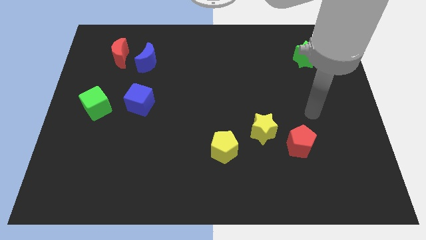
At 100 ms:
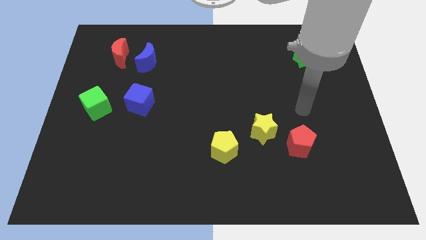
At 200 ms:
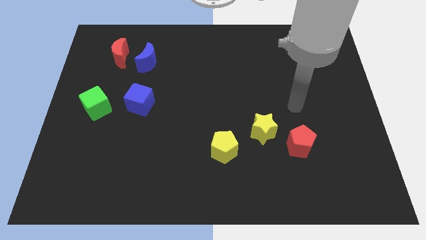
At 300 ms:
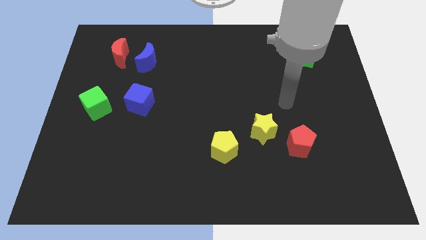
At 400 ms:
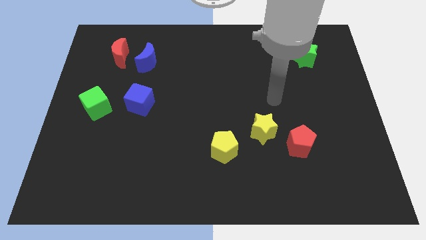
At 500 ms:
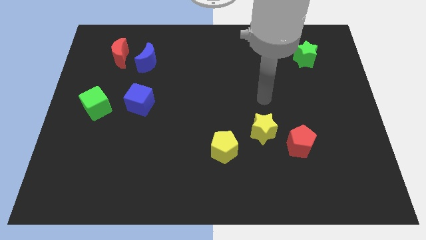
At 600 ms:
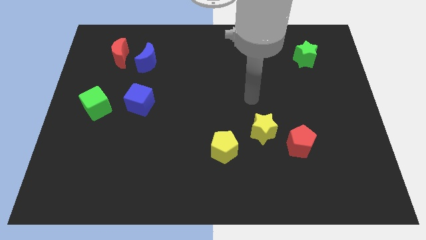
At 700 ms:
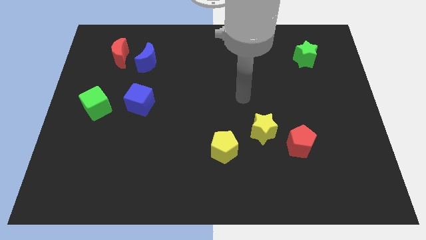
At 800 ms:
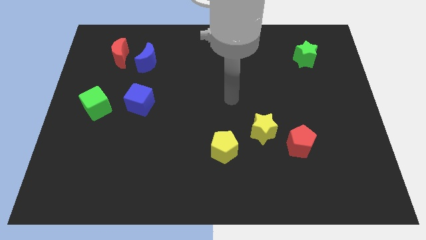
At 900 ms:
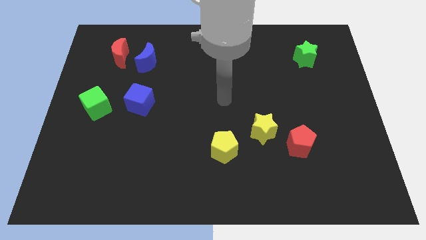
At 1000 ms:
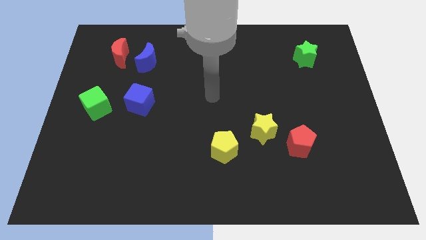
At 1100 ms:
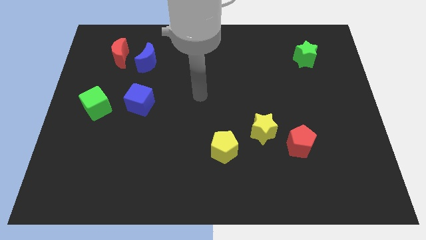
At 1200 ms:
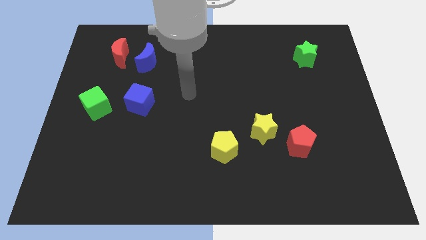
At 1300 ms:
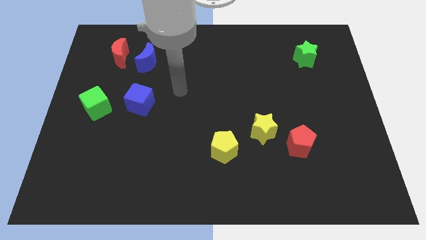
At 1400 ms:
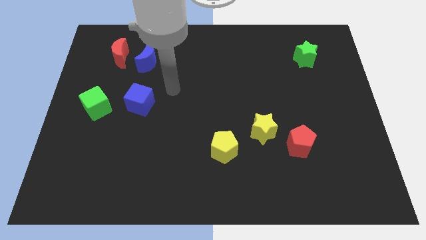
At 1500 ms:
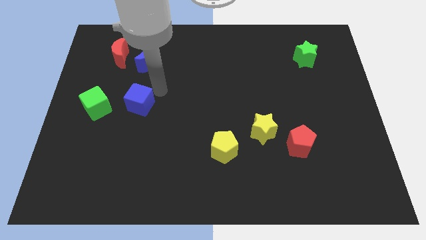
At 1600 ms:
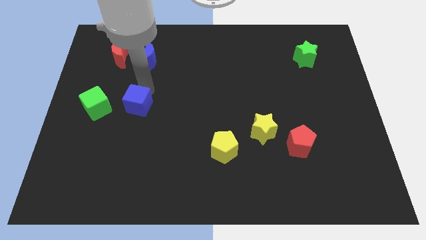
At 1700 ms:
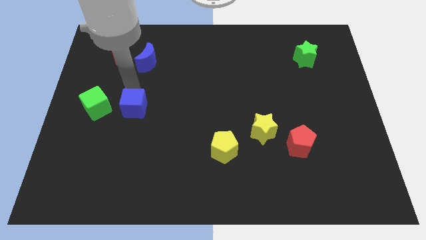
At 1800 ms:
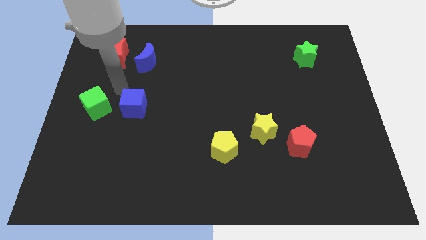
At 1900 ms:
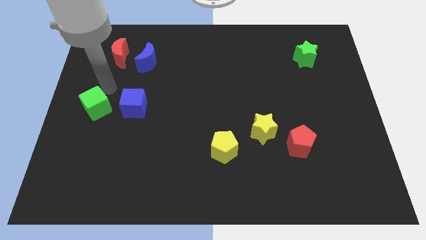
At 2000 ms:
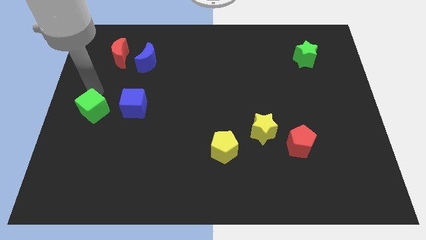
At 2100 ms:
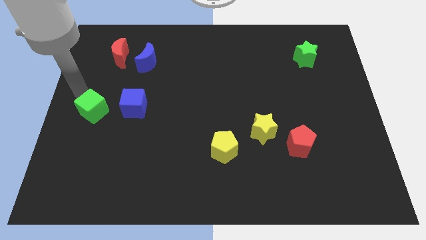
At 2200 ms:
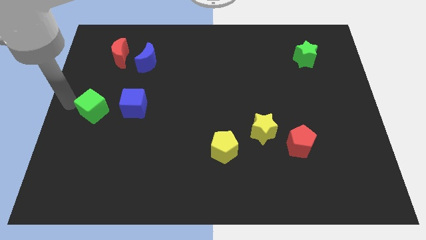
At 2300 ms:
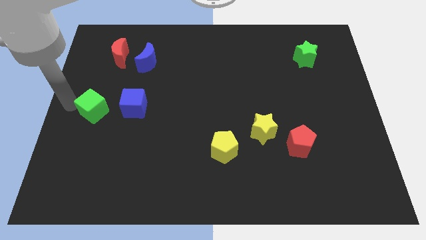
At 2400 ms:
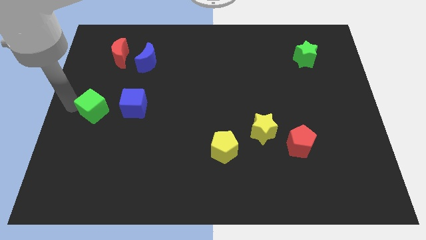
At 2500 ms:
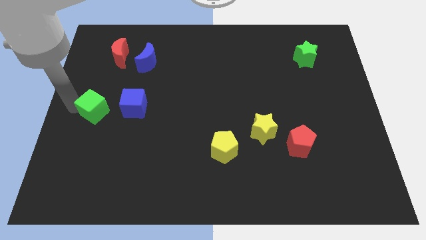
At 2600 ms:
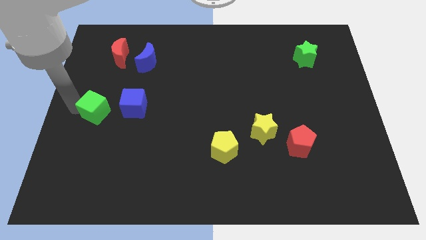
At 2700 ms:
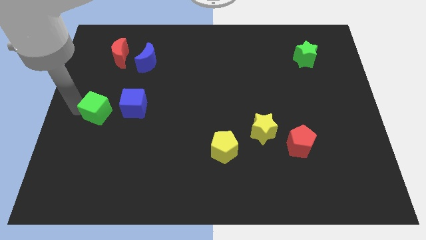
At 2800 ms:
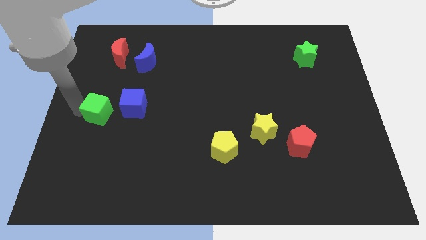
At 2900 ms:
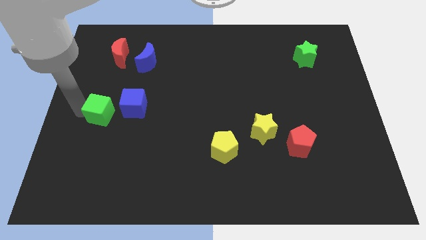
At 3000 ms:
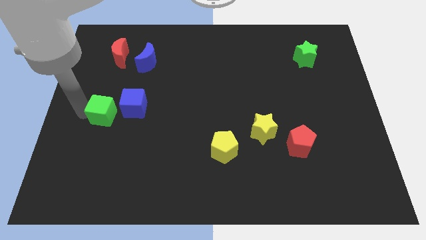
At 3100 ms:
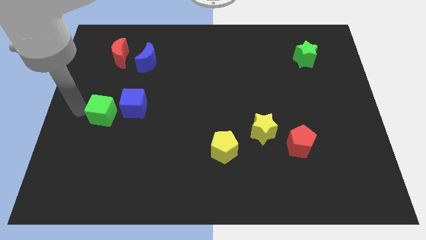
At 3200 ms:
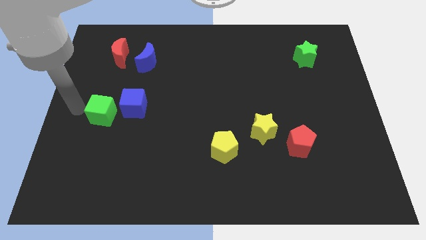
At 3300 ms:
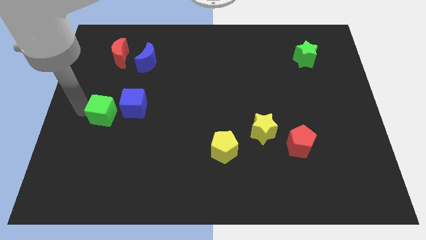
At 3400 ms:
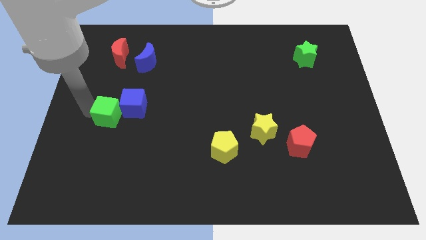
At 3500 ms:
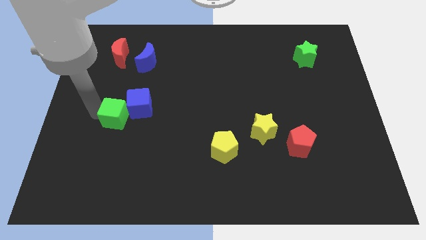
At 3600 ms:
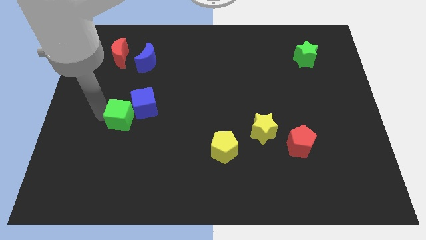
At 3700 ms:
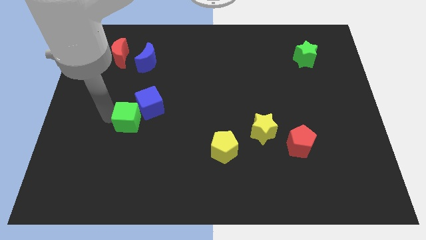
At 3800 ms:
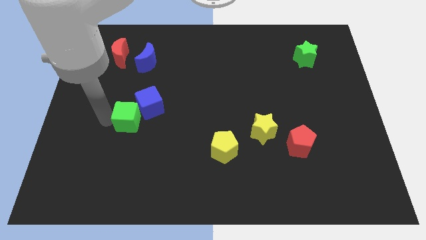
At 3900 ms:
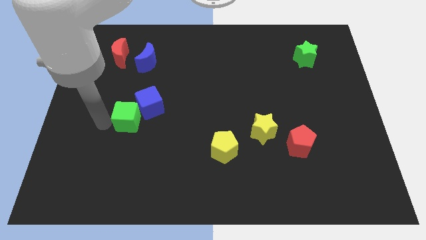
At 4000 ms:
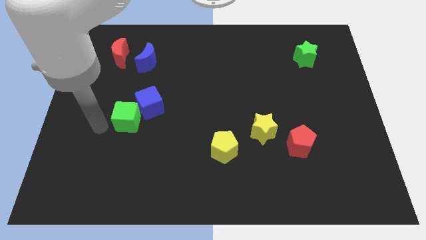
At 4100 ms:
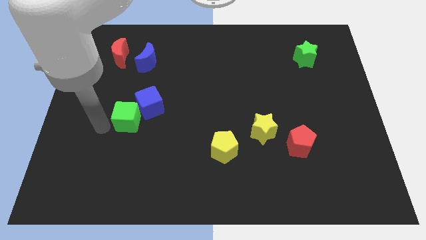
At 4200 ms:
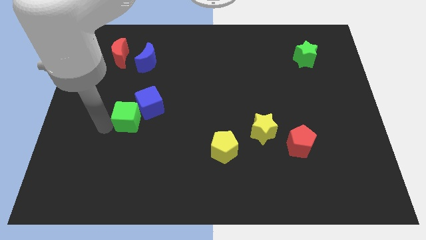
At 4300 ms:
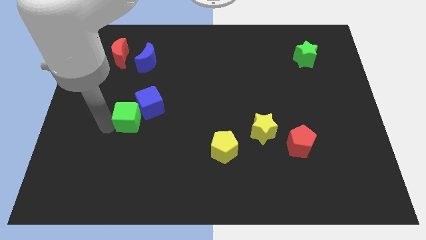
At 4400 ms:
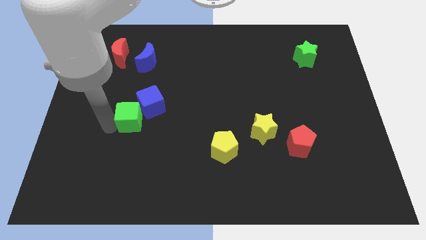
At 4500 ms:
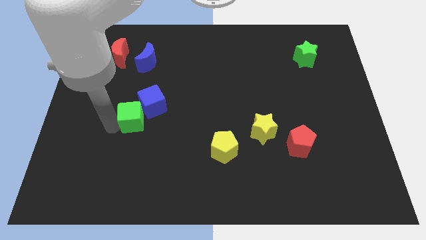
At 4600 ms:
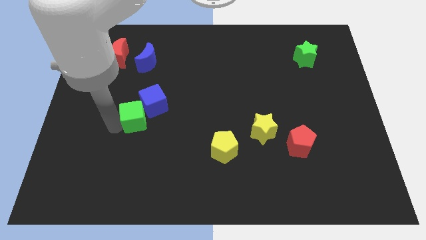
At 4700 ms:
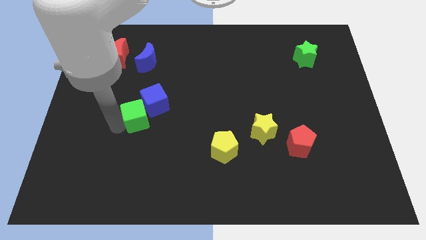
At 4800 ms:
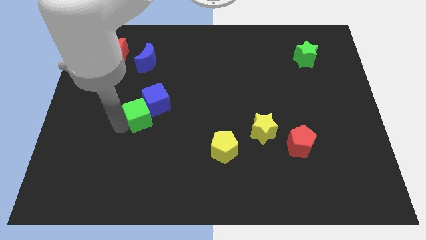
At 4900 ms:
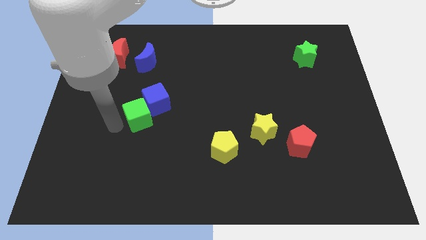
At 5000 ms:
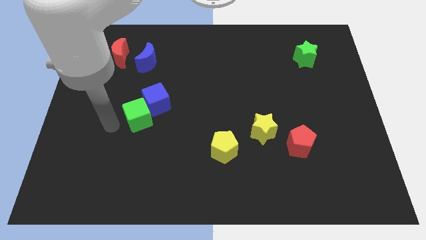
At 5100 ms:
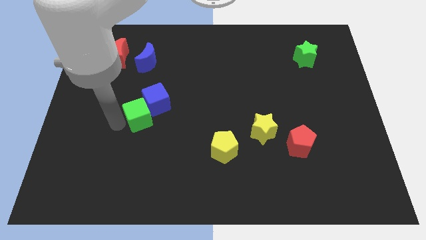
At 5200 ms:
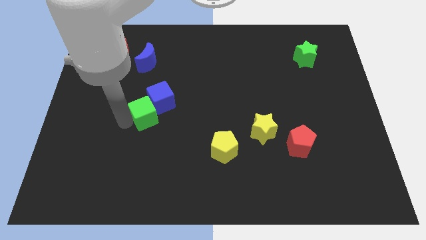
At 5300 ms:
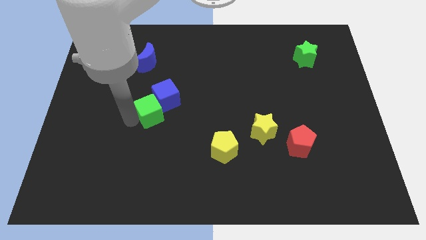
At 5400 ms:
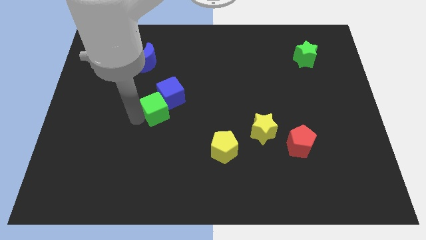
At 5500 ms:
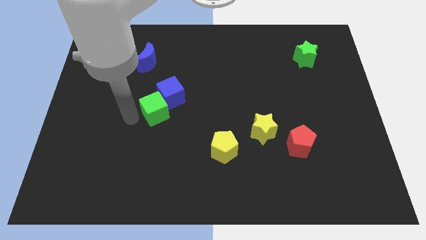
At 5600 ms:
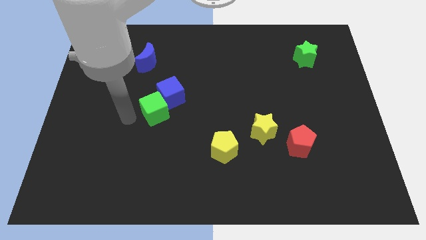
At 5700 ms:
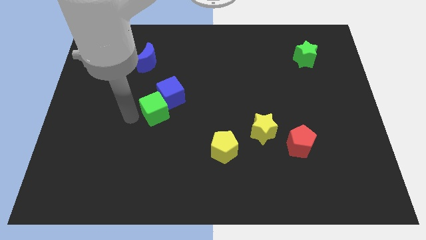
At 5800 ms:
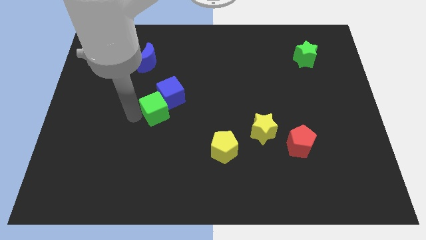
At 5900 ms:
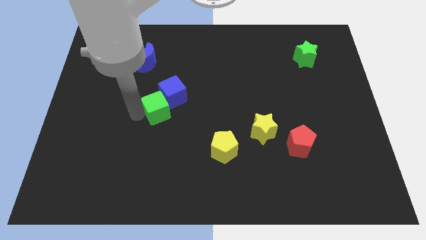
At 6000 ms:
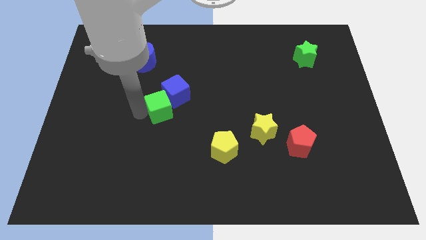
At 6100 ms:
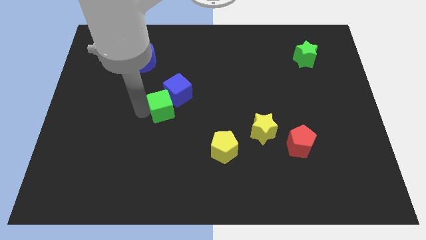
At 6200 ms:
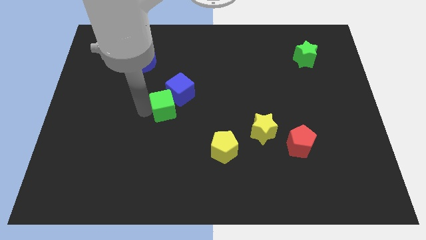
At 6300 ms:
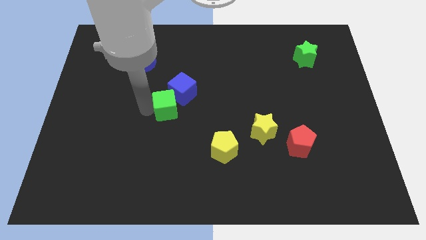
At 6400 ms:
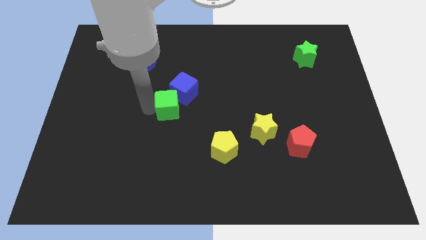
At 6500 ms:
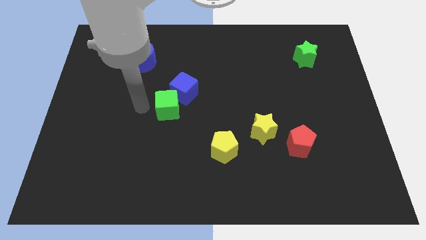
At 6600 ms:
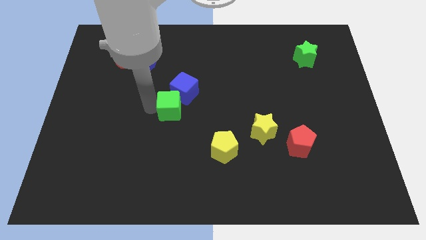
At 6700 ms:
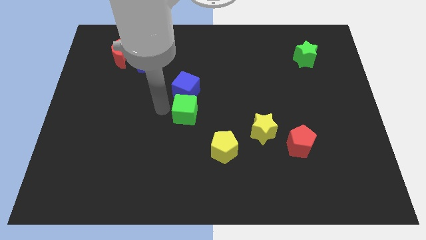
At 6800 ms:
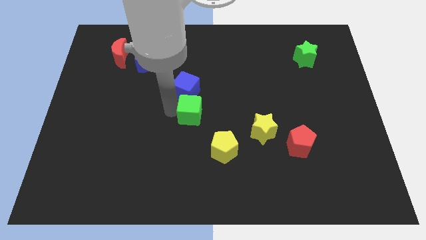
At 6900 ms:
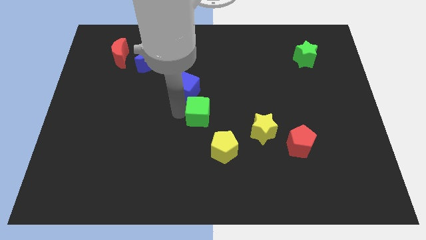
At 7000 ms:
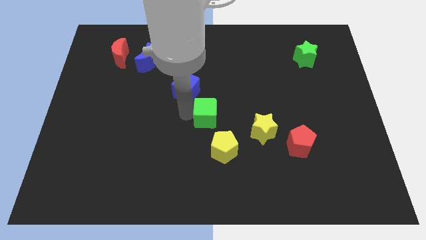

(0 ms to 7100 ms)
move the green cube to the top of the yellow pentagon

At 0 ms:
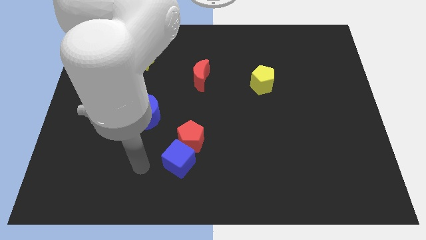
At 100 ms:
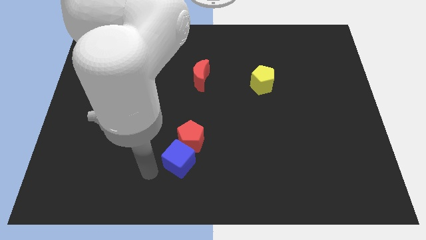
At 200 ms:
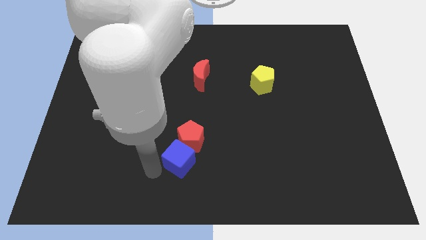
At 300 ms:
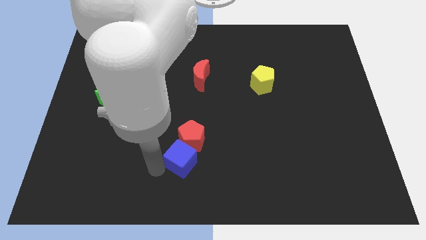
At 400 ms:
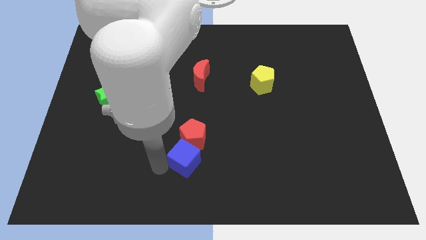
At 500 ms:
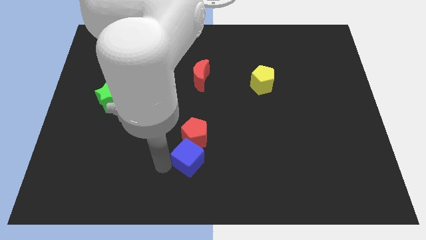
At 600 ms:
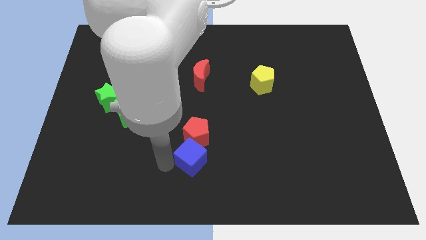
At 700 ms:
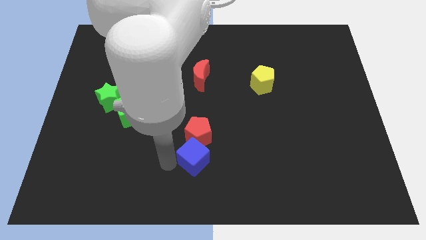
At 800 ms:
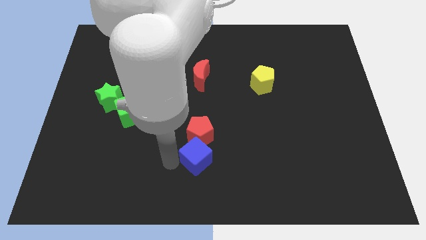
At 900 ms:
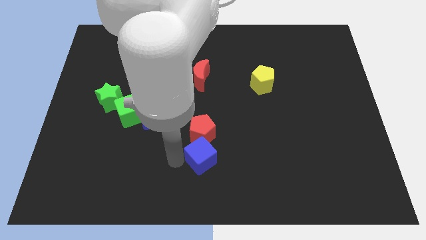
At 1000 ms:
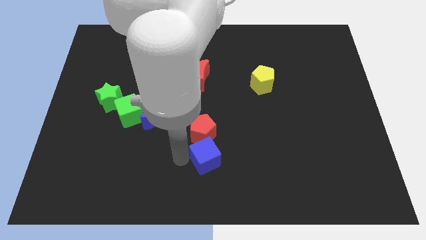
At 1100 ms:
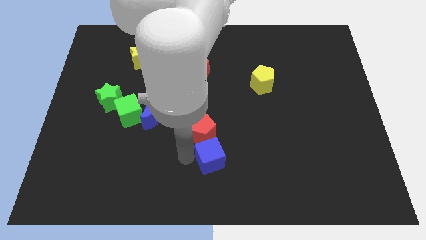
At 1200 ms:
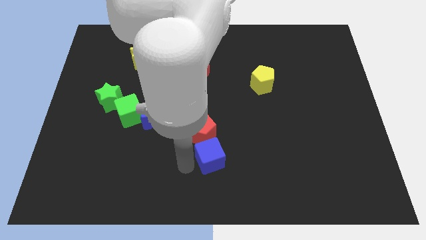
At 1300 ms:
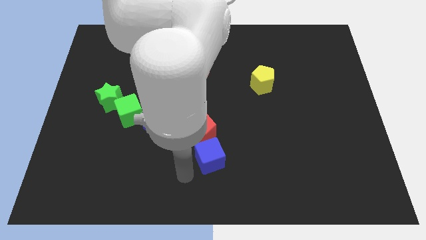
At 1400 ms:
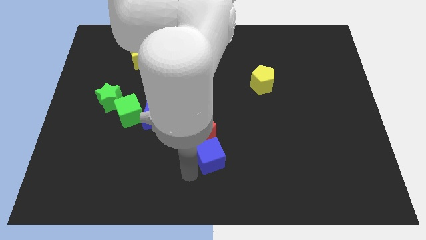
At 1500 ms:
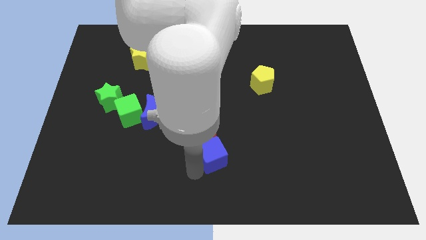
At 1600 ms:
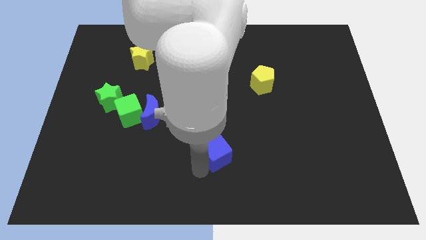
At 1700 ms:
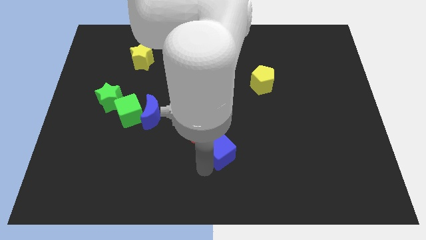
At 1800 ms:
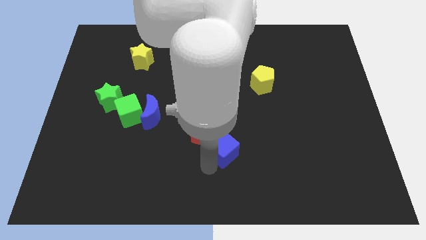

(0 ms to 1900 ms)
move the blue cube right of the red pentagon
